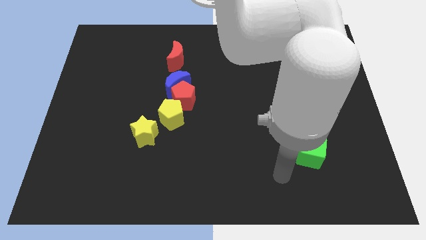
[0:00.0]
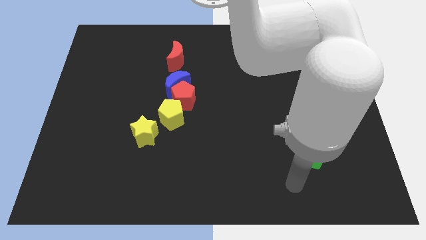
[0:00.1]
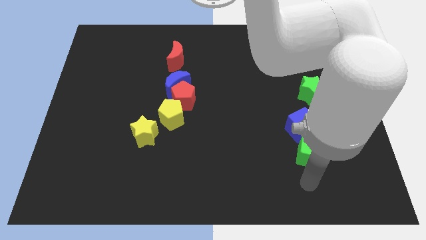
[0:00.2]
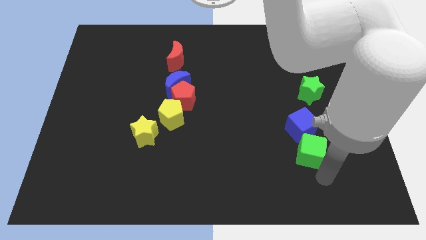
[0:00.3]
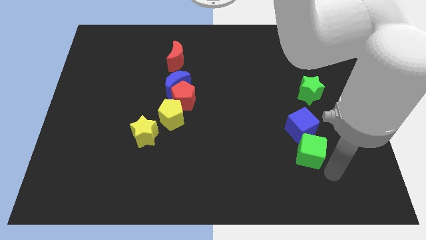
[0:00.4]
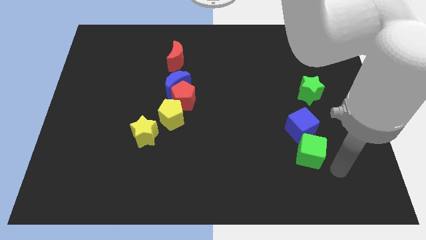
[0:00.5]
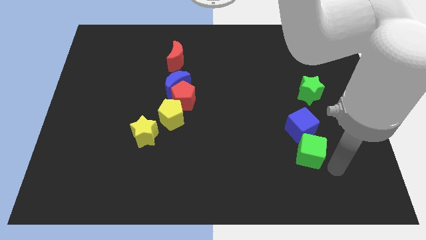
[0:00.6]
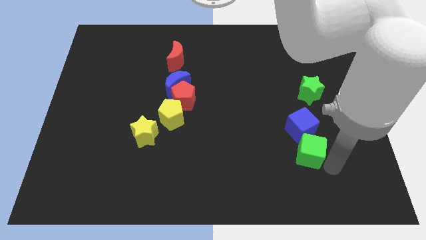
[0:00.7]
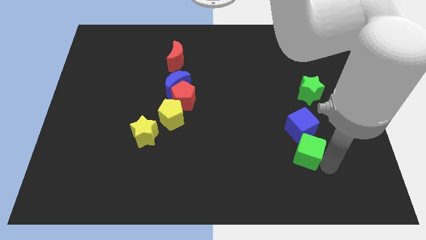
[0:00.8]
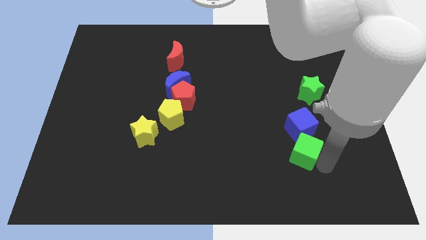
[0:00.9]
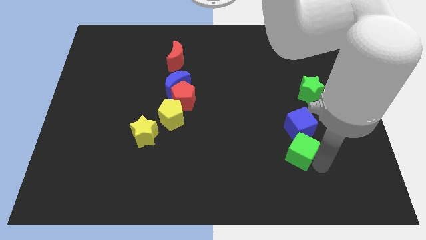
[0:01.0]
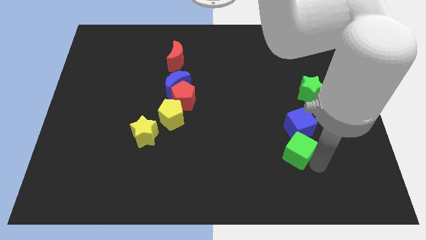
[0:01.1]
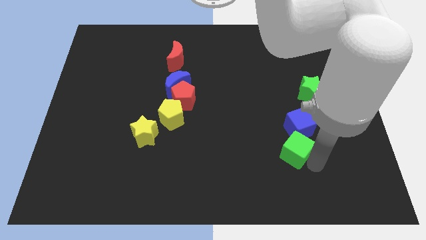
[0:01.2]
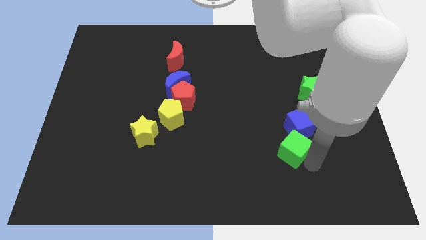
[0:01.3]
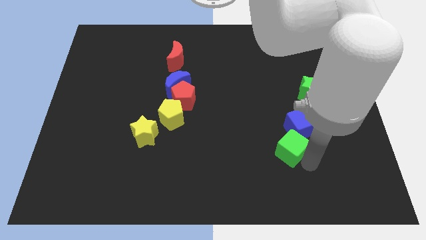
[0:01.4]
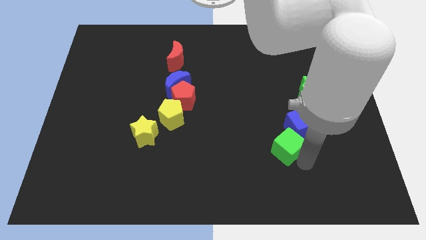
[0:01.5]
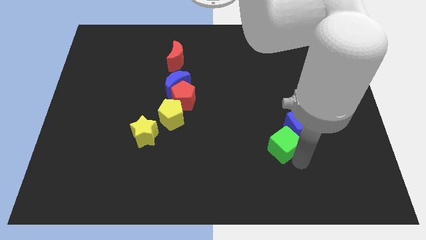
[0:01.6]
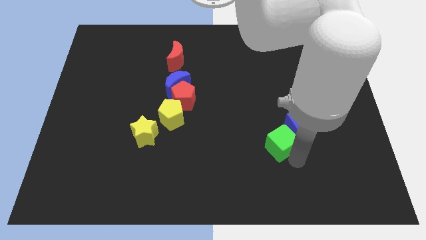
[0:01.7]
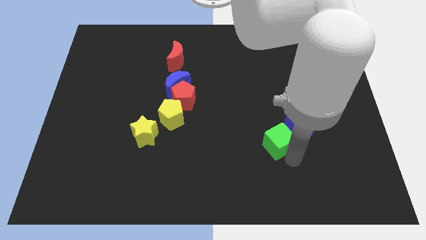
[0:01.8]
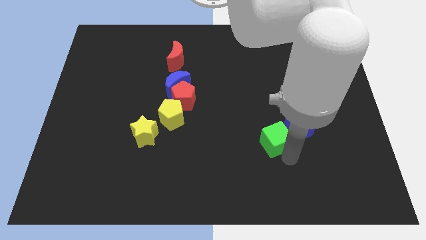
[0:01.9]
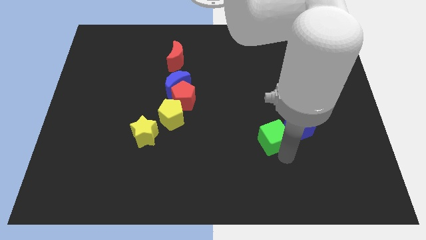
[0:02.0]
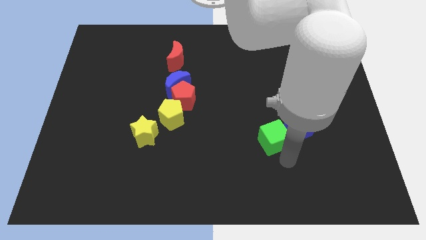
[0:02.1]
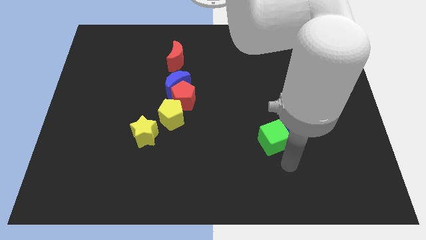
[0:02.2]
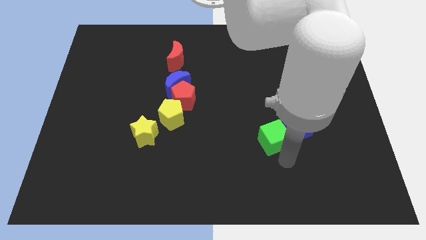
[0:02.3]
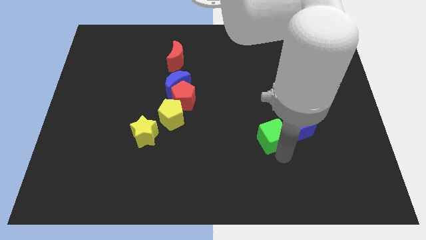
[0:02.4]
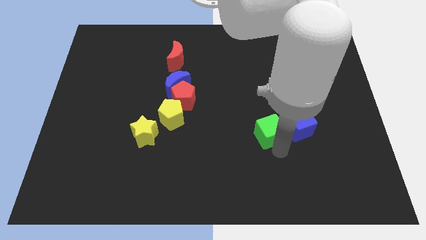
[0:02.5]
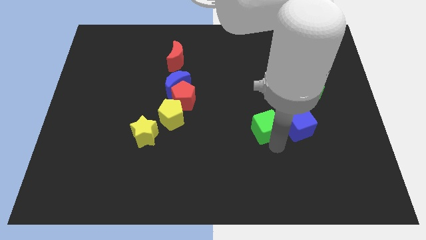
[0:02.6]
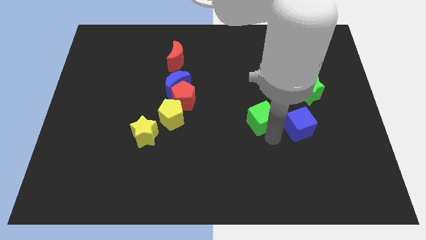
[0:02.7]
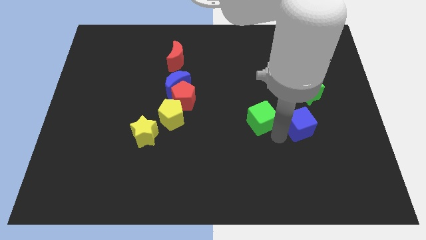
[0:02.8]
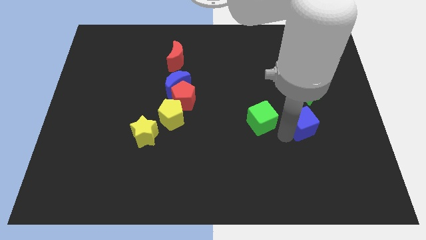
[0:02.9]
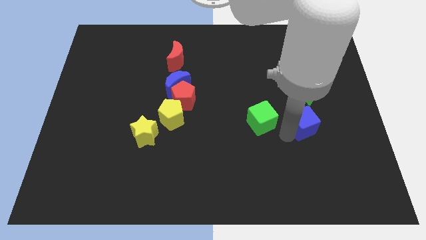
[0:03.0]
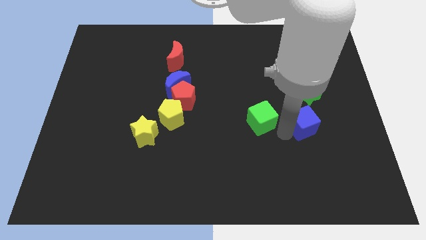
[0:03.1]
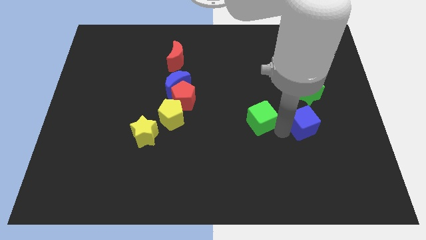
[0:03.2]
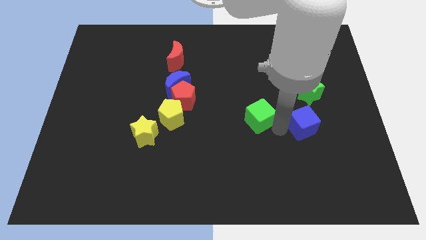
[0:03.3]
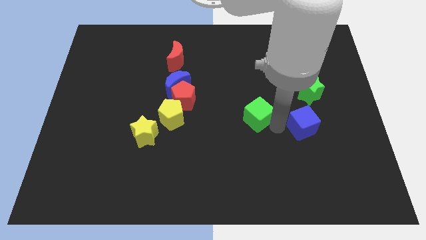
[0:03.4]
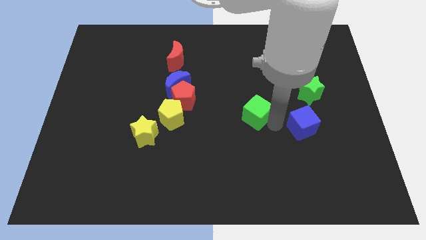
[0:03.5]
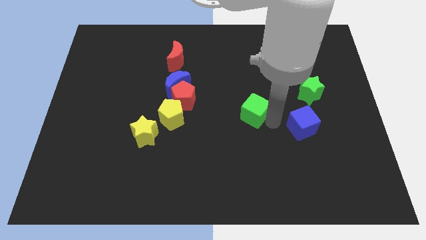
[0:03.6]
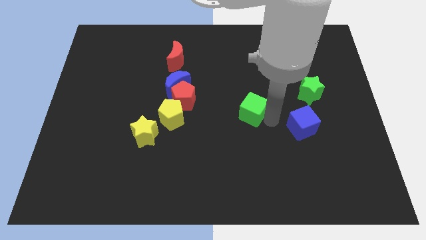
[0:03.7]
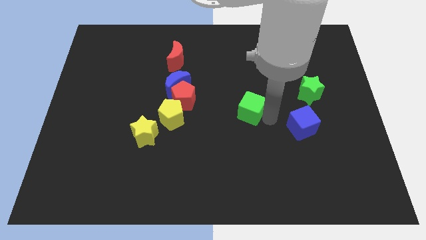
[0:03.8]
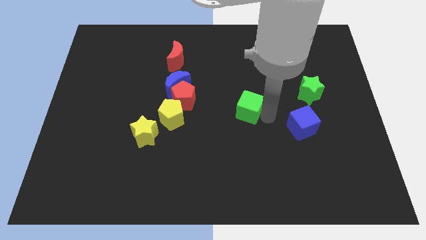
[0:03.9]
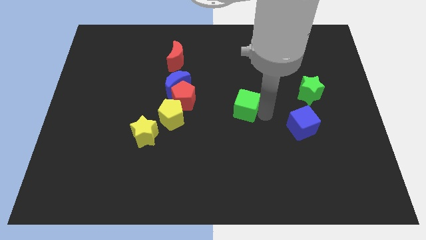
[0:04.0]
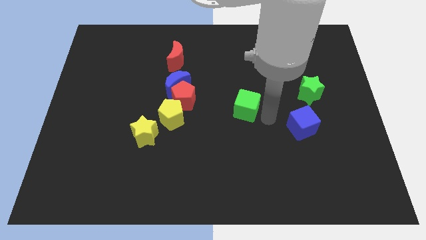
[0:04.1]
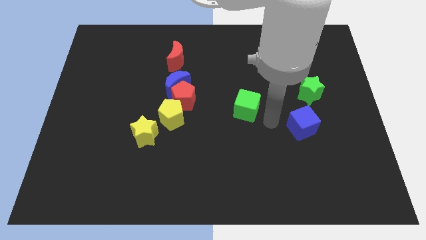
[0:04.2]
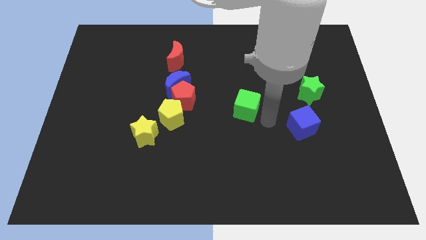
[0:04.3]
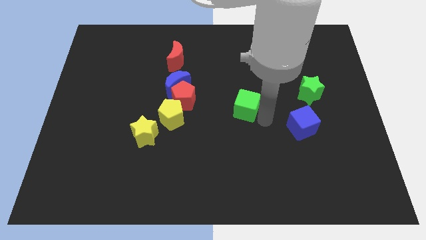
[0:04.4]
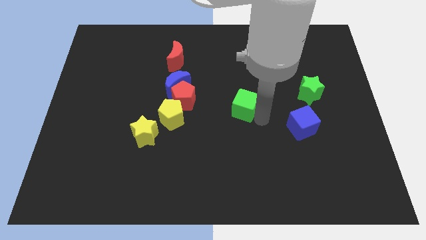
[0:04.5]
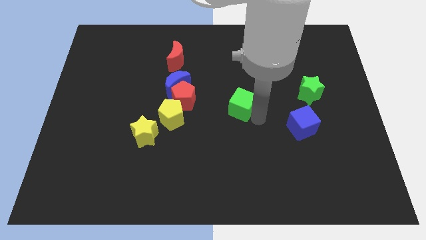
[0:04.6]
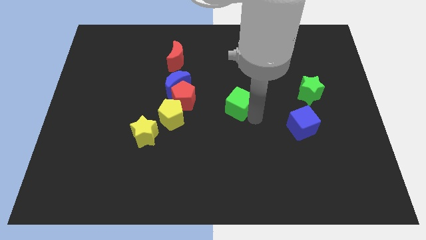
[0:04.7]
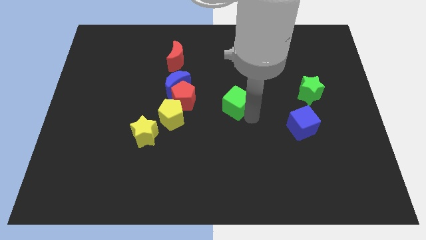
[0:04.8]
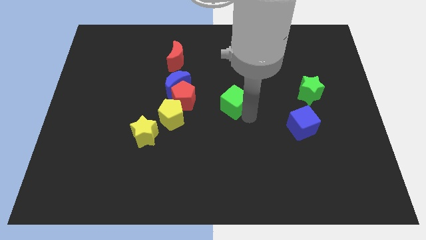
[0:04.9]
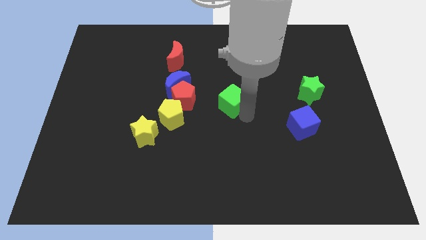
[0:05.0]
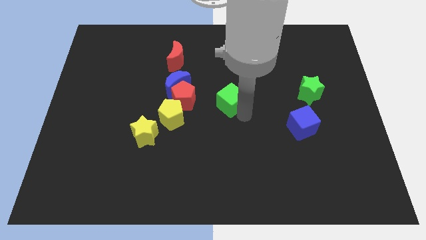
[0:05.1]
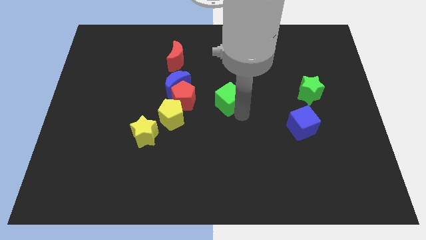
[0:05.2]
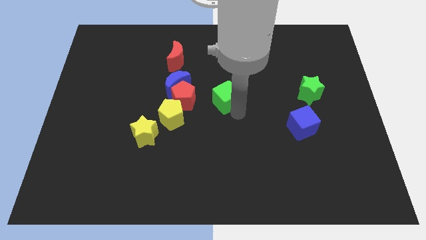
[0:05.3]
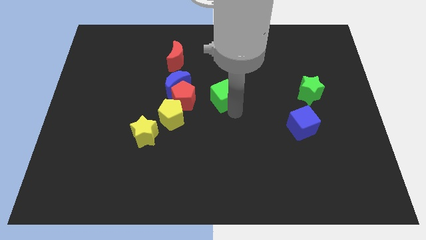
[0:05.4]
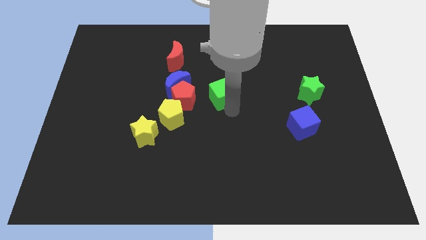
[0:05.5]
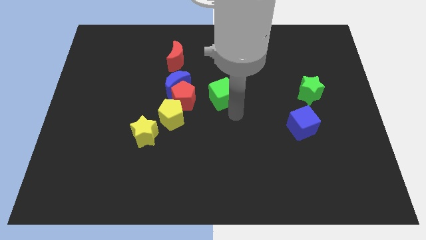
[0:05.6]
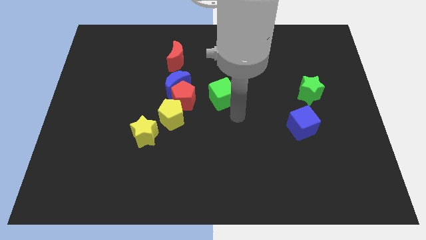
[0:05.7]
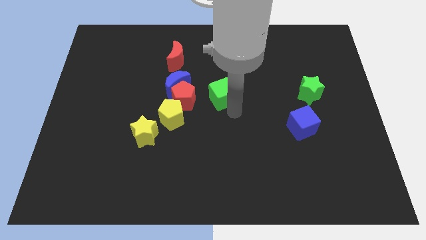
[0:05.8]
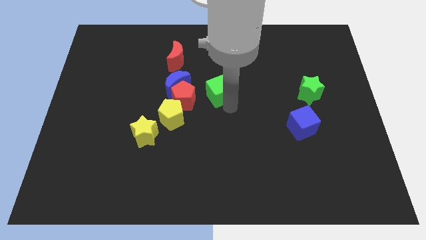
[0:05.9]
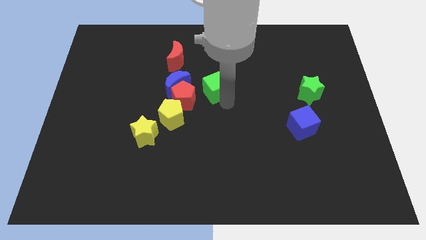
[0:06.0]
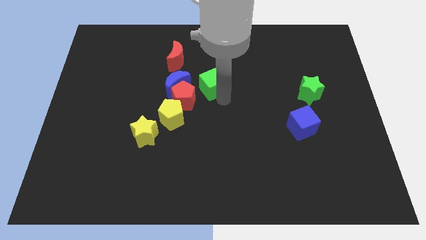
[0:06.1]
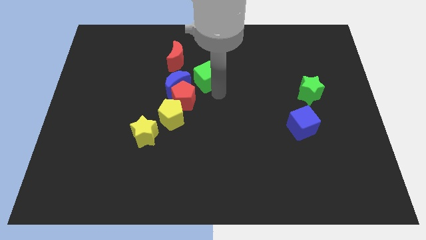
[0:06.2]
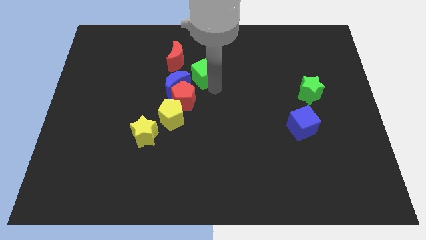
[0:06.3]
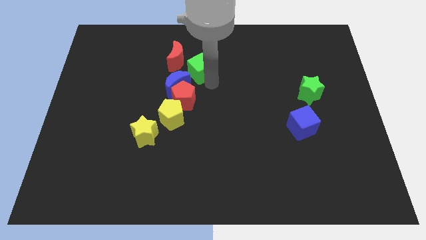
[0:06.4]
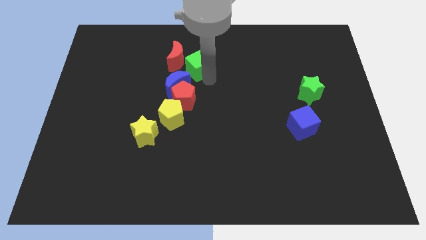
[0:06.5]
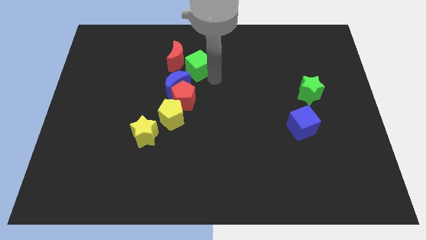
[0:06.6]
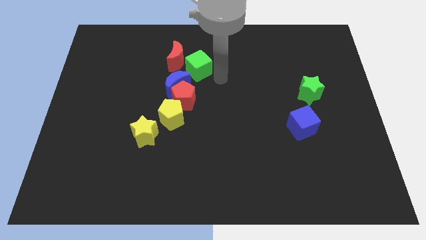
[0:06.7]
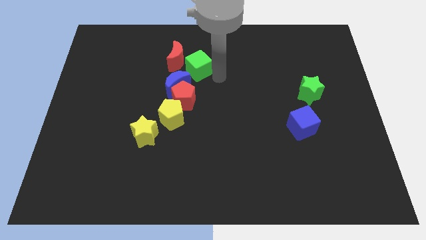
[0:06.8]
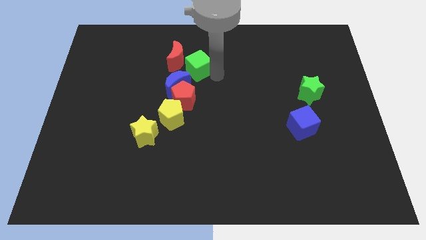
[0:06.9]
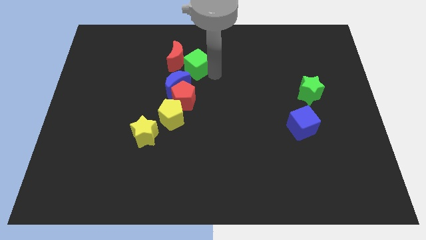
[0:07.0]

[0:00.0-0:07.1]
slide the green cube close to the red moon
